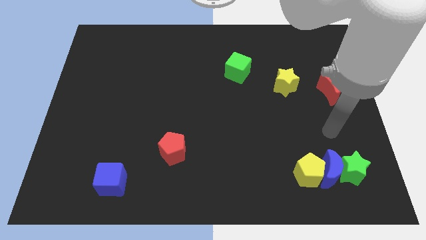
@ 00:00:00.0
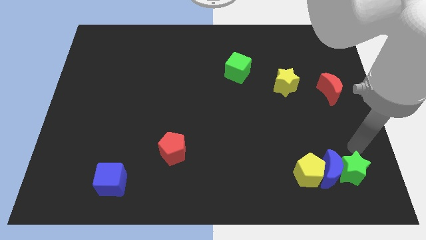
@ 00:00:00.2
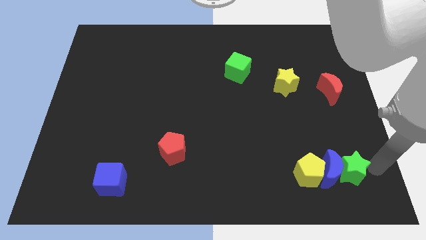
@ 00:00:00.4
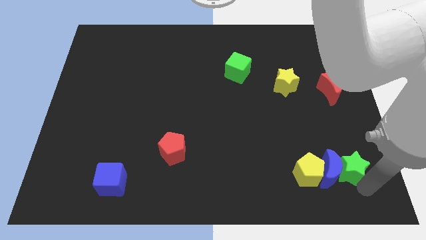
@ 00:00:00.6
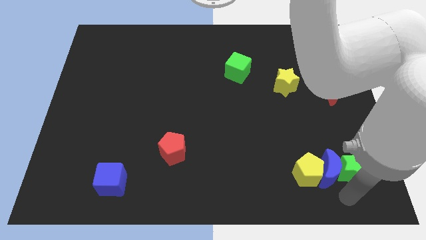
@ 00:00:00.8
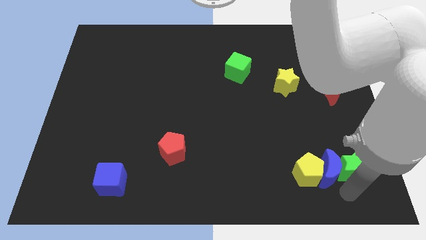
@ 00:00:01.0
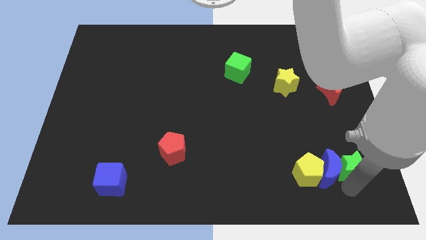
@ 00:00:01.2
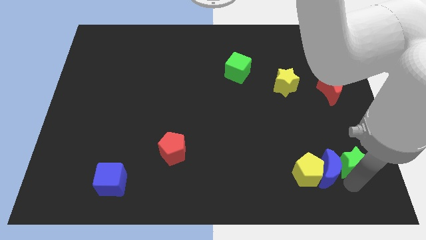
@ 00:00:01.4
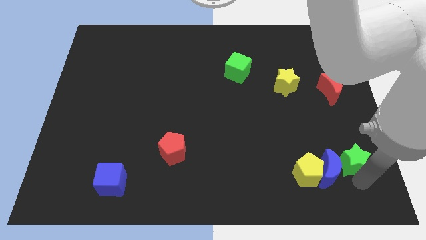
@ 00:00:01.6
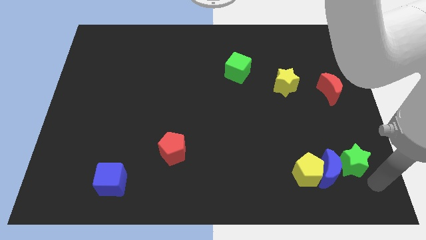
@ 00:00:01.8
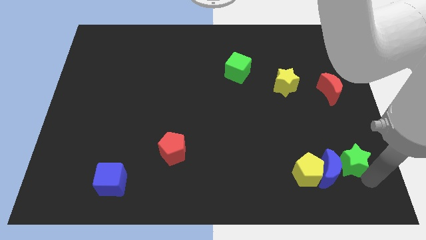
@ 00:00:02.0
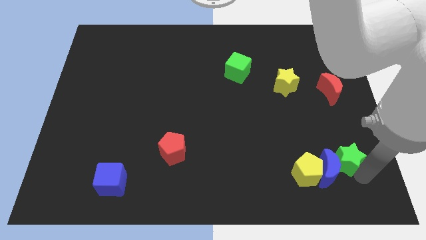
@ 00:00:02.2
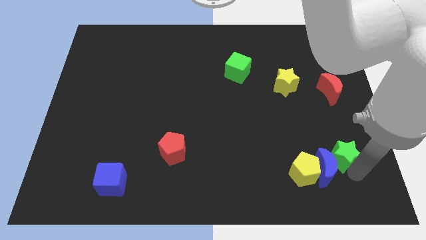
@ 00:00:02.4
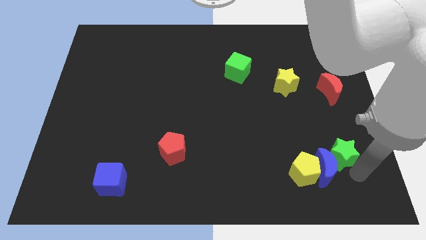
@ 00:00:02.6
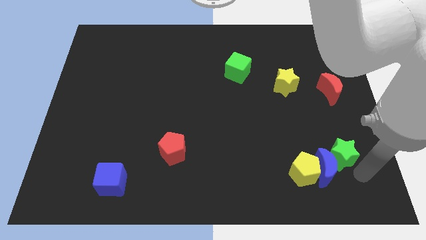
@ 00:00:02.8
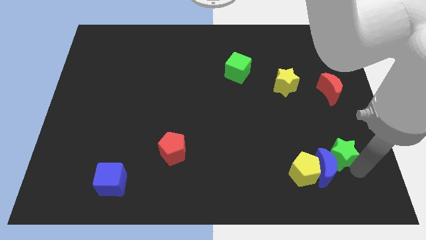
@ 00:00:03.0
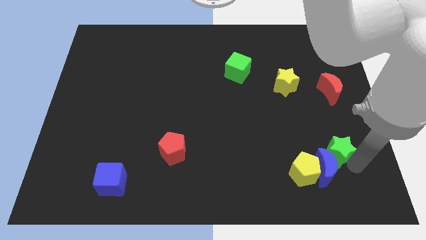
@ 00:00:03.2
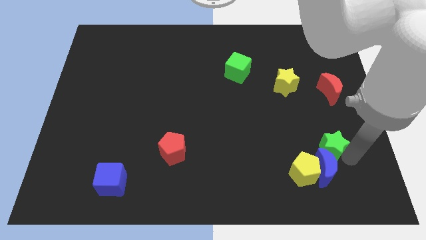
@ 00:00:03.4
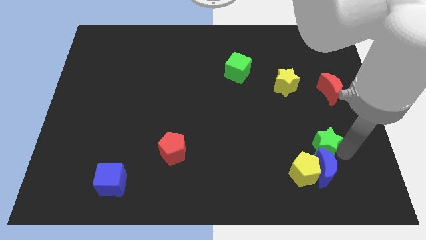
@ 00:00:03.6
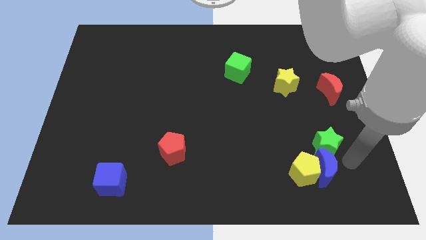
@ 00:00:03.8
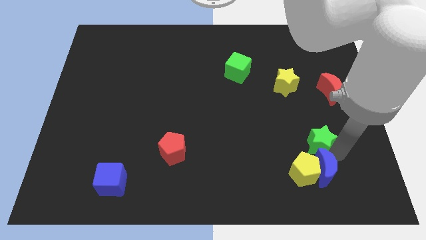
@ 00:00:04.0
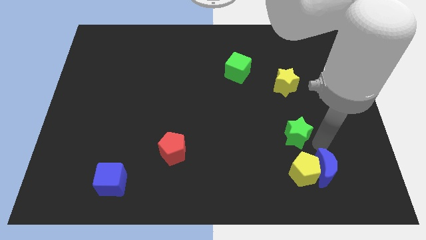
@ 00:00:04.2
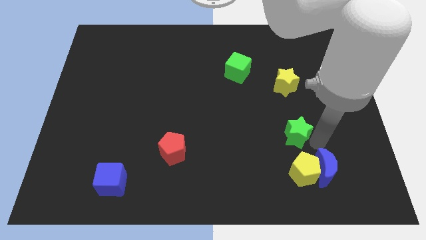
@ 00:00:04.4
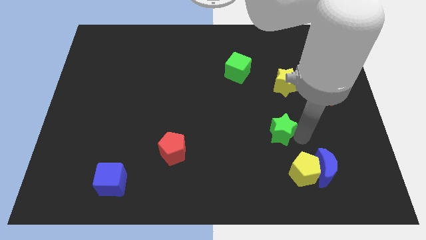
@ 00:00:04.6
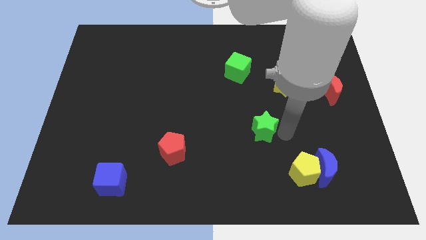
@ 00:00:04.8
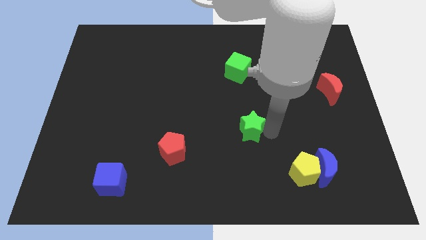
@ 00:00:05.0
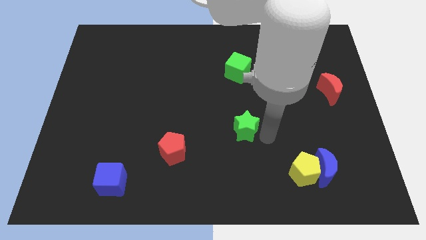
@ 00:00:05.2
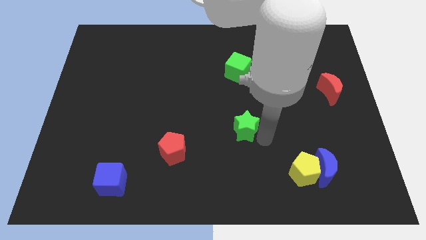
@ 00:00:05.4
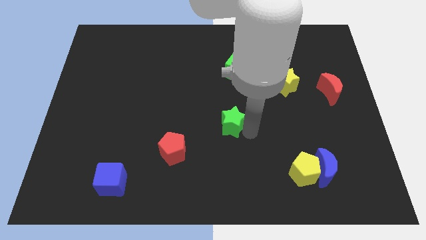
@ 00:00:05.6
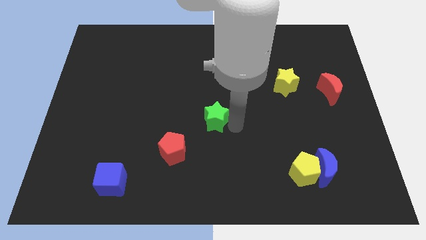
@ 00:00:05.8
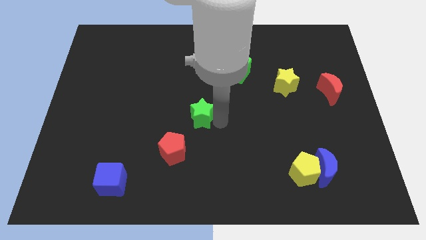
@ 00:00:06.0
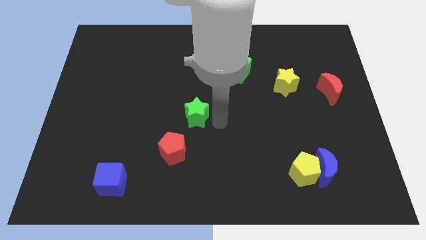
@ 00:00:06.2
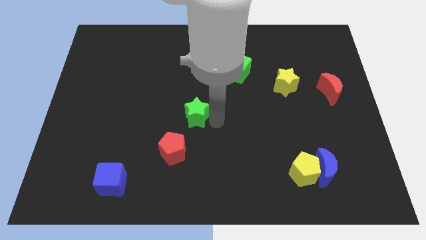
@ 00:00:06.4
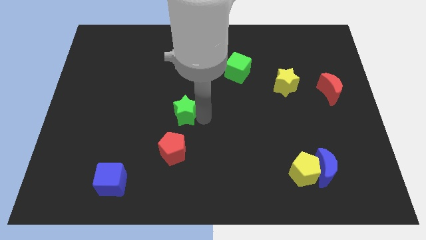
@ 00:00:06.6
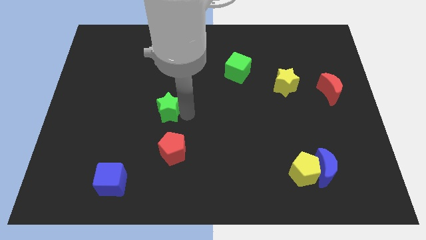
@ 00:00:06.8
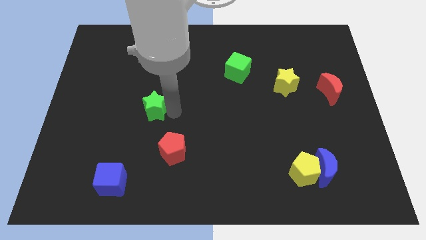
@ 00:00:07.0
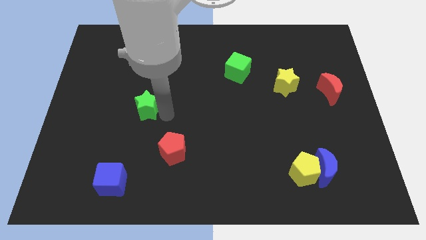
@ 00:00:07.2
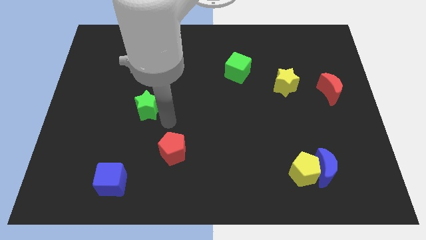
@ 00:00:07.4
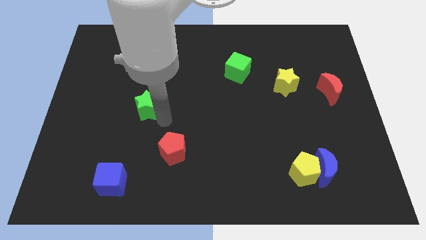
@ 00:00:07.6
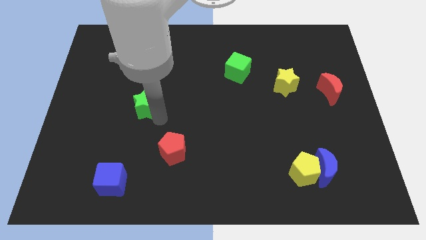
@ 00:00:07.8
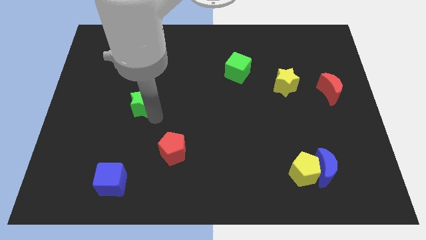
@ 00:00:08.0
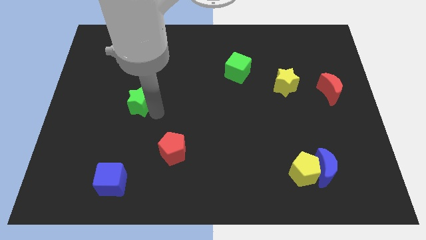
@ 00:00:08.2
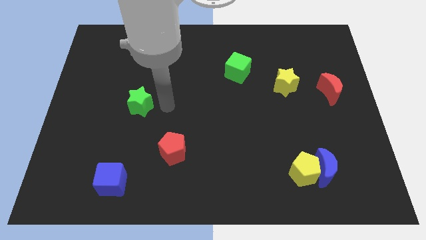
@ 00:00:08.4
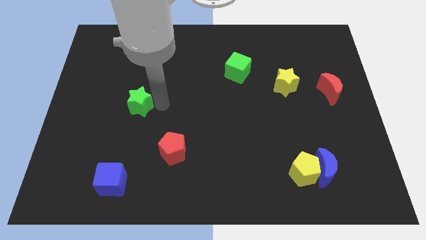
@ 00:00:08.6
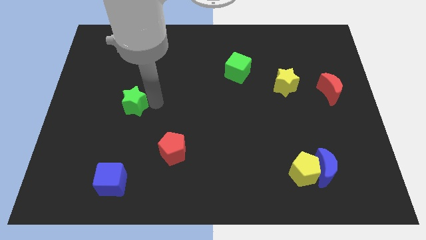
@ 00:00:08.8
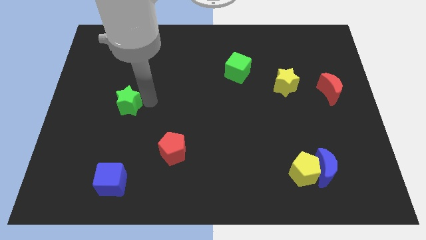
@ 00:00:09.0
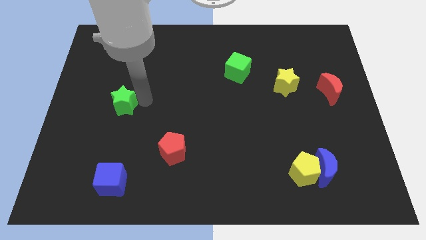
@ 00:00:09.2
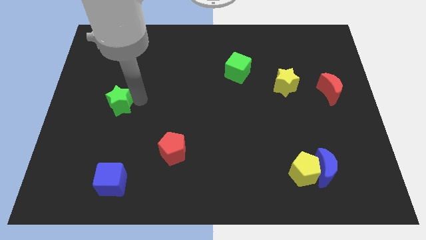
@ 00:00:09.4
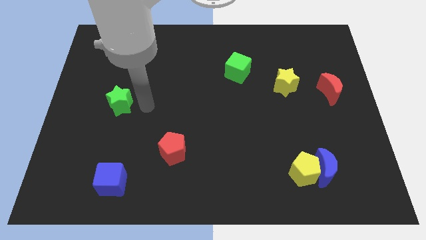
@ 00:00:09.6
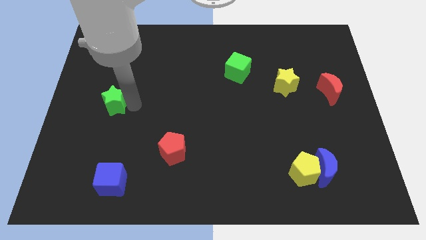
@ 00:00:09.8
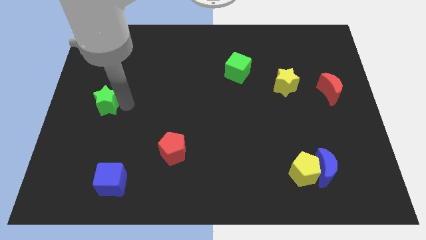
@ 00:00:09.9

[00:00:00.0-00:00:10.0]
put the green star to the left side of the board
